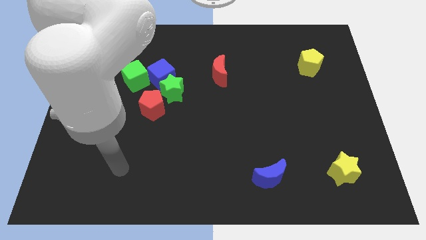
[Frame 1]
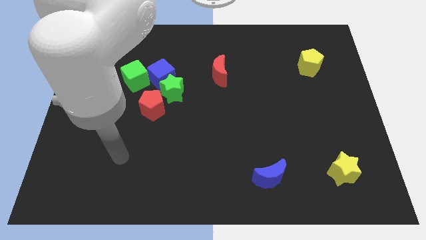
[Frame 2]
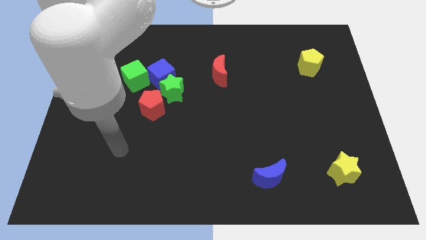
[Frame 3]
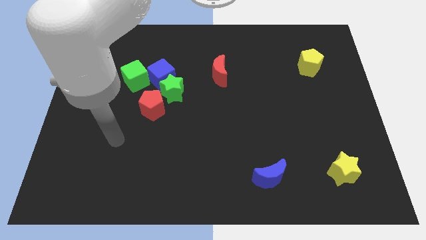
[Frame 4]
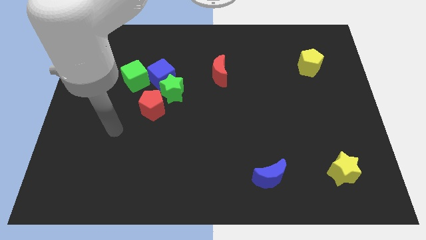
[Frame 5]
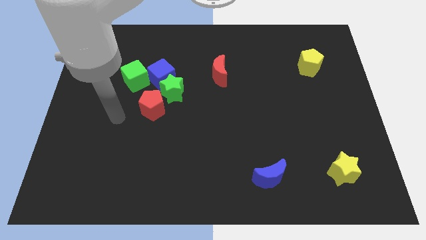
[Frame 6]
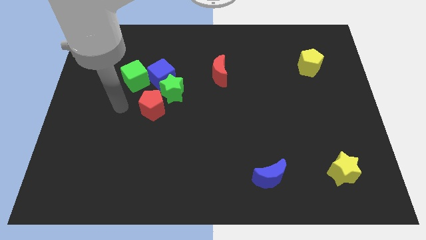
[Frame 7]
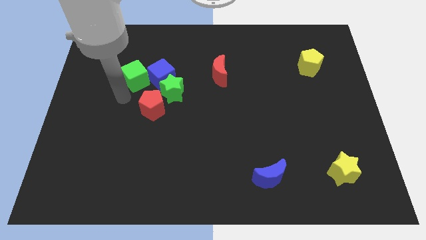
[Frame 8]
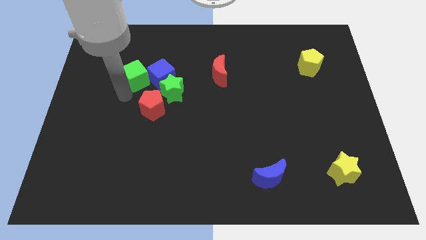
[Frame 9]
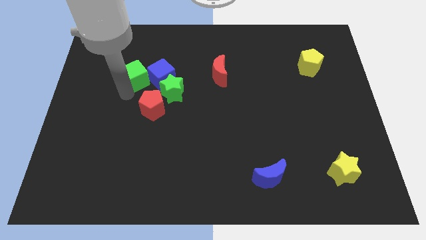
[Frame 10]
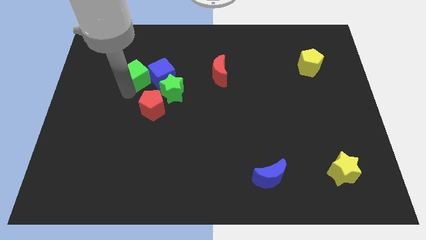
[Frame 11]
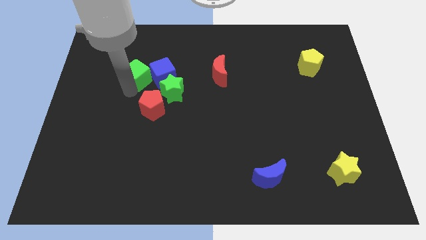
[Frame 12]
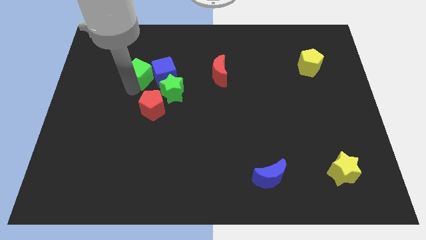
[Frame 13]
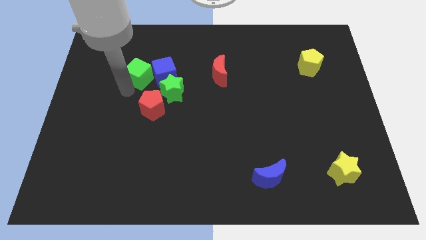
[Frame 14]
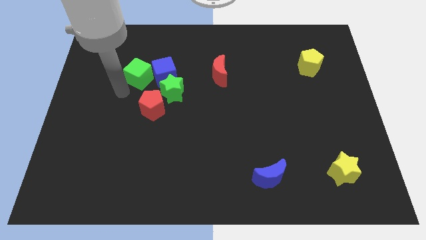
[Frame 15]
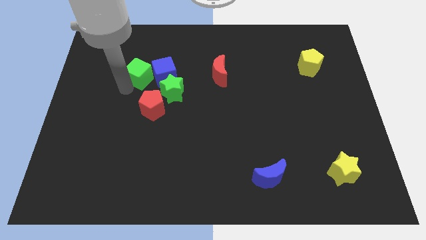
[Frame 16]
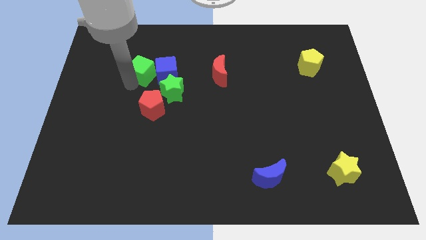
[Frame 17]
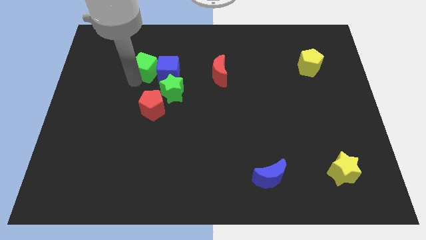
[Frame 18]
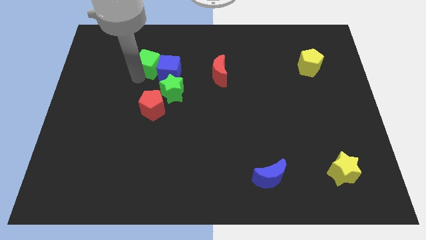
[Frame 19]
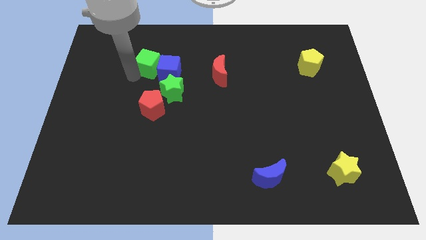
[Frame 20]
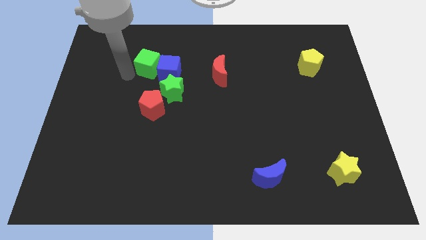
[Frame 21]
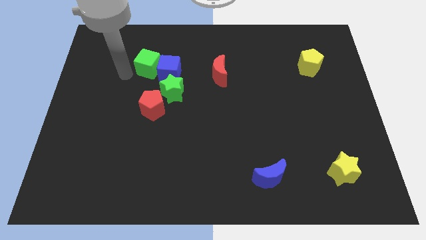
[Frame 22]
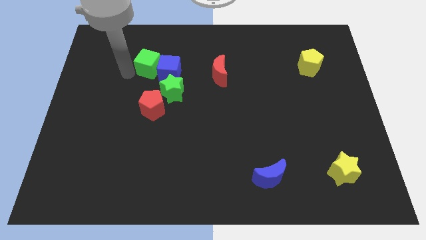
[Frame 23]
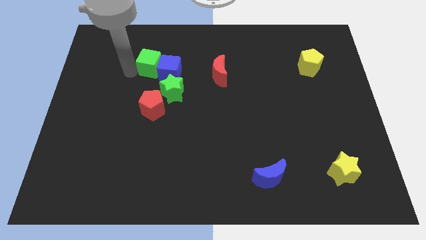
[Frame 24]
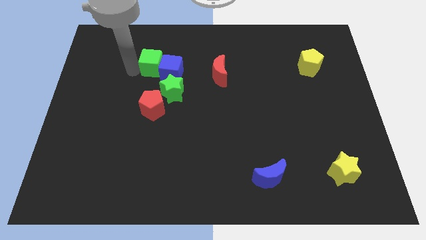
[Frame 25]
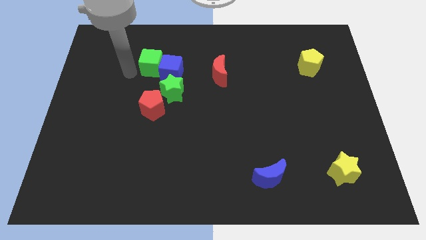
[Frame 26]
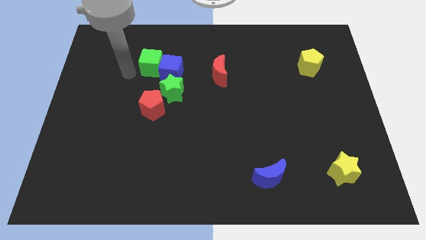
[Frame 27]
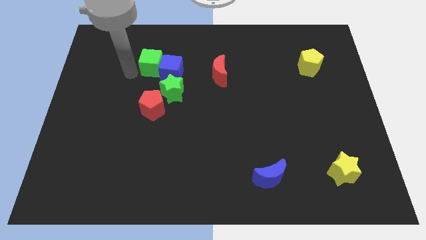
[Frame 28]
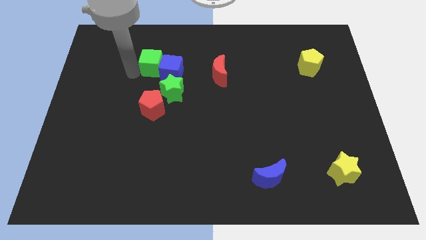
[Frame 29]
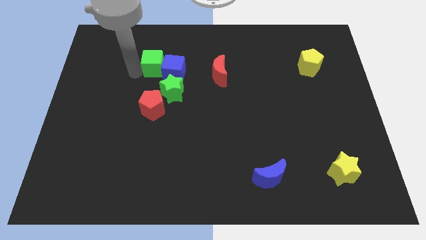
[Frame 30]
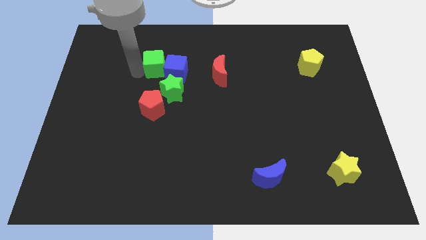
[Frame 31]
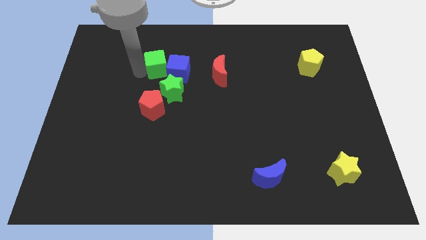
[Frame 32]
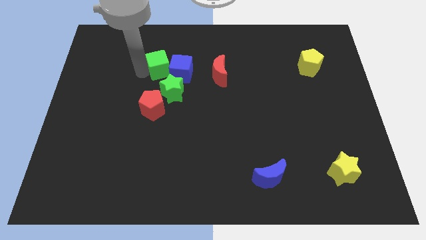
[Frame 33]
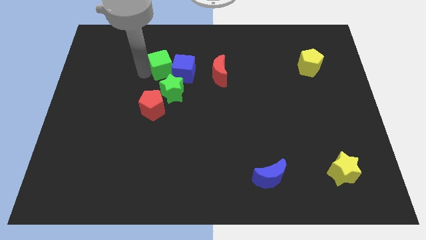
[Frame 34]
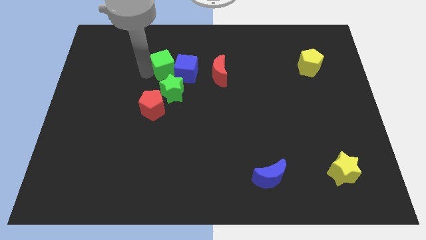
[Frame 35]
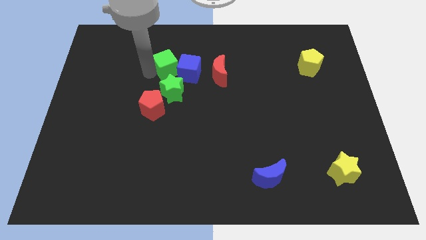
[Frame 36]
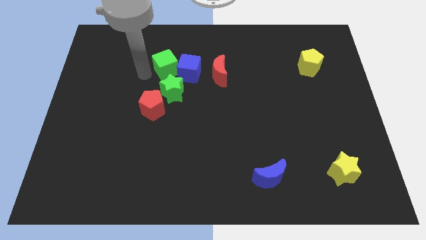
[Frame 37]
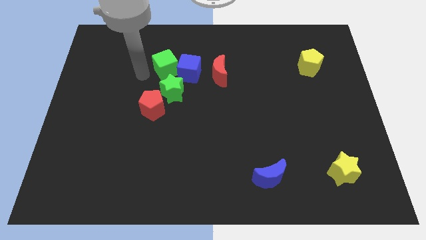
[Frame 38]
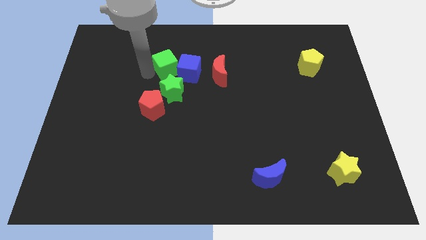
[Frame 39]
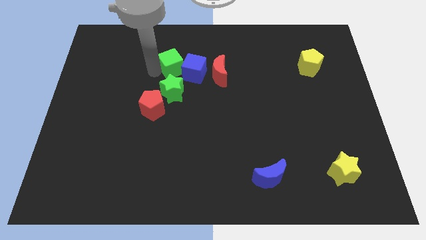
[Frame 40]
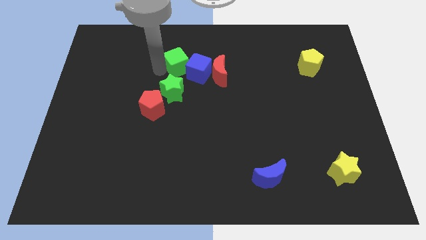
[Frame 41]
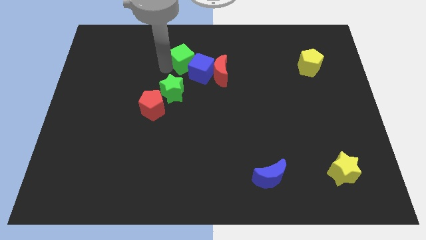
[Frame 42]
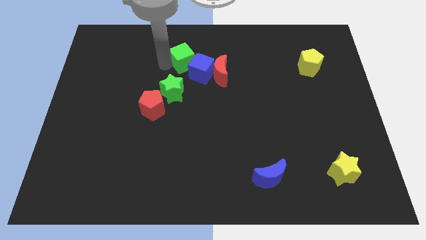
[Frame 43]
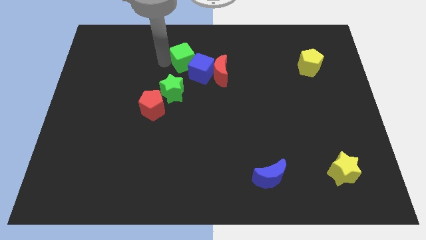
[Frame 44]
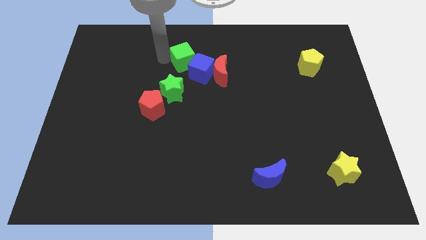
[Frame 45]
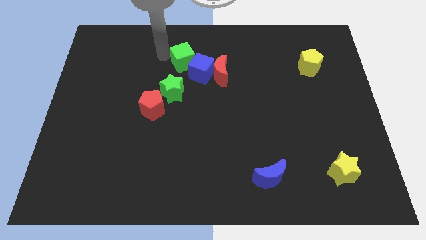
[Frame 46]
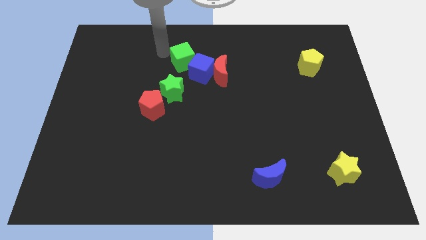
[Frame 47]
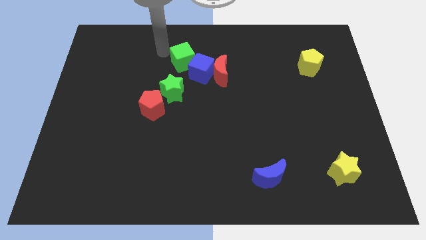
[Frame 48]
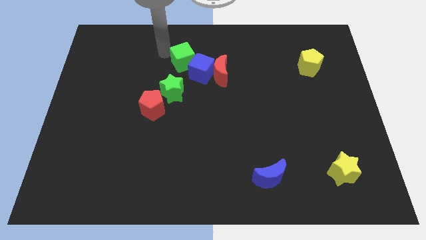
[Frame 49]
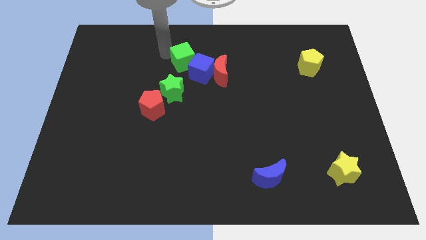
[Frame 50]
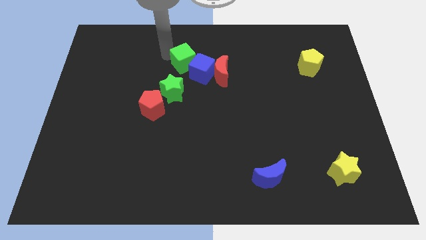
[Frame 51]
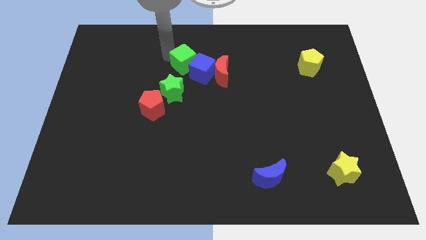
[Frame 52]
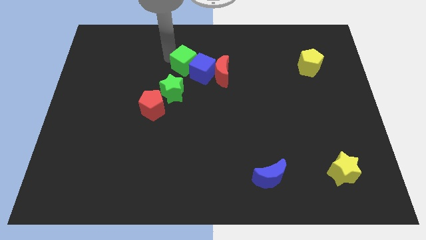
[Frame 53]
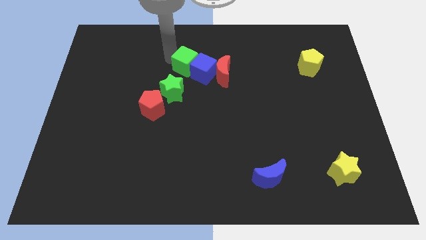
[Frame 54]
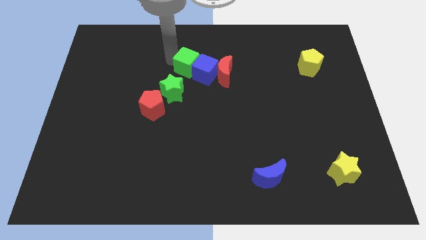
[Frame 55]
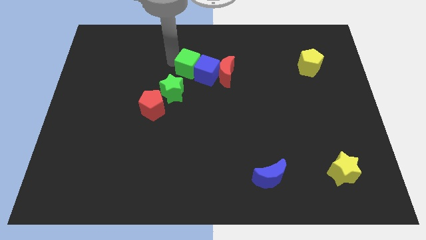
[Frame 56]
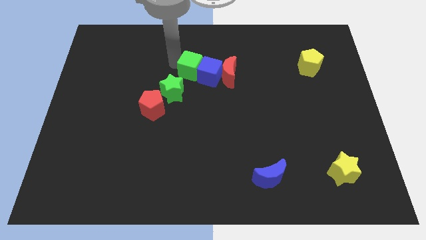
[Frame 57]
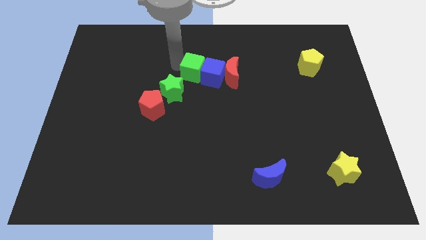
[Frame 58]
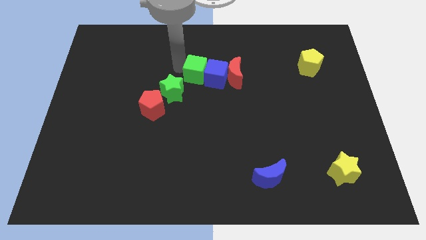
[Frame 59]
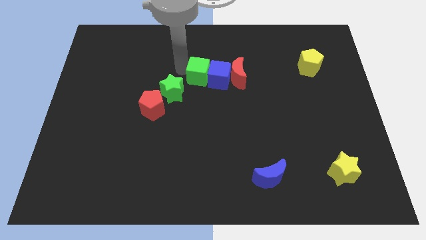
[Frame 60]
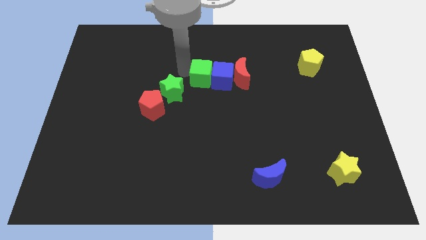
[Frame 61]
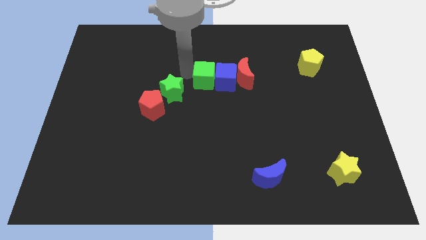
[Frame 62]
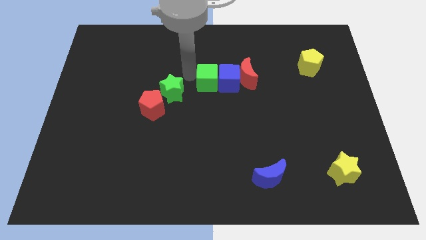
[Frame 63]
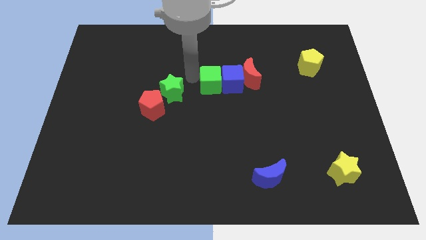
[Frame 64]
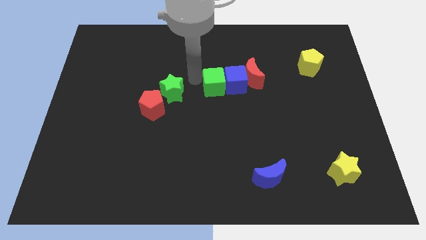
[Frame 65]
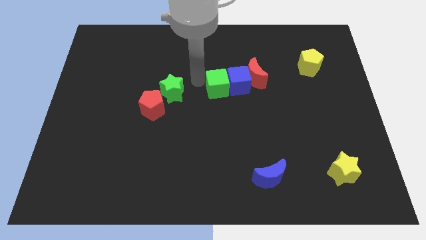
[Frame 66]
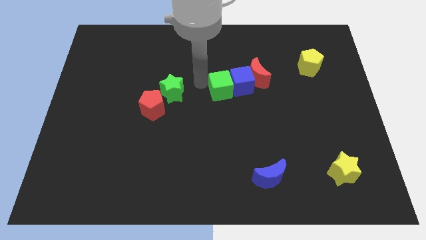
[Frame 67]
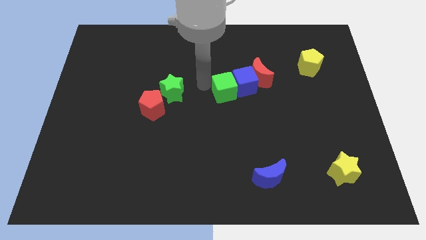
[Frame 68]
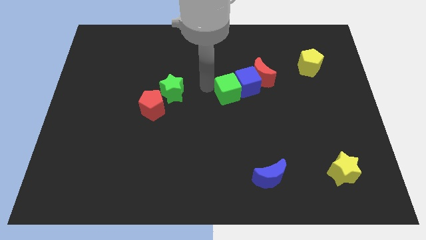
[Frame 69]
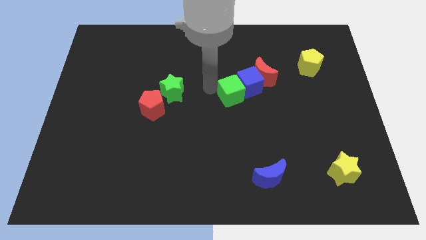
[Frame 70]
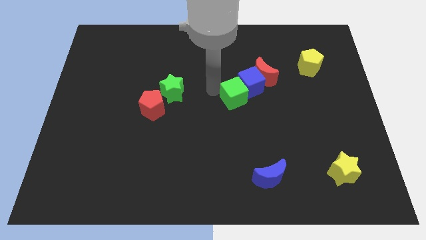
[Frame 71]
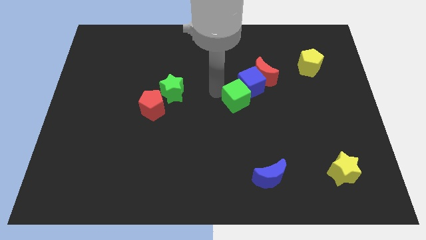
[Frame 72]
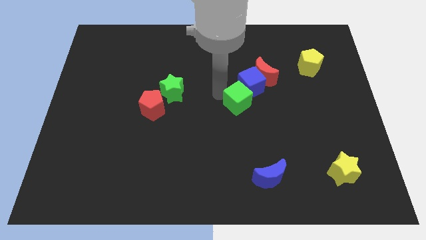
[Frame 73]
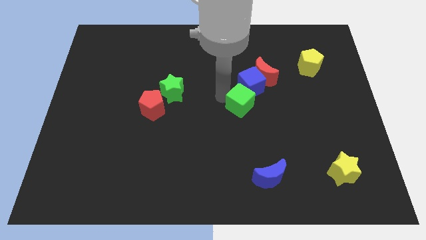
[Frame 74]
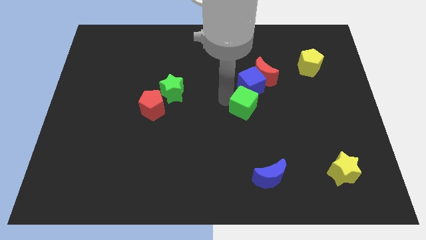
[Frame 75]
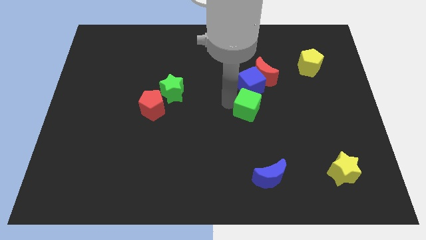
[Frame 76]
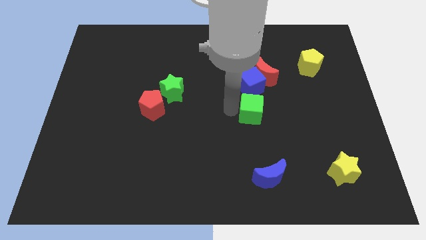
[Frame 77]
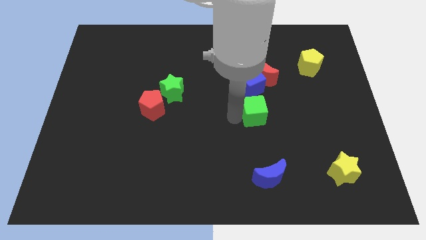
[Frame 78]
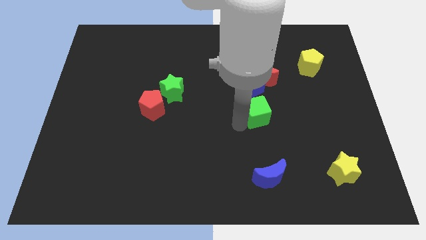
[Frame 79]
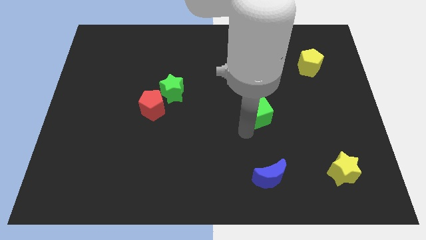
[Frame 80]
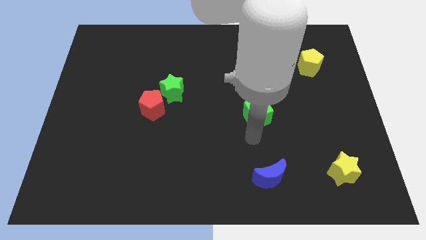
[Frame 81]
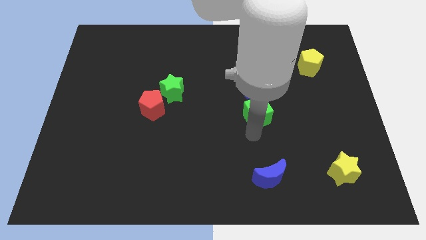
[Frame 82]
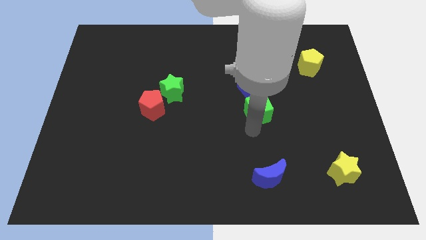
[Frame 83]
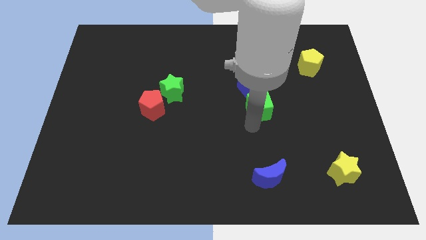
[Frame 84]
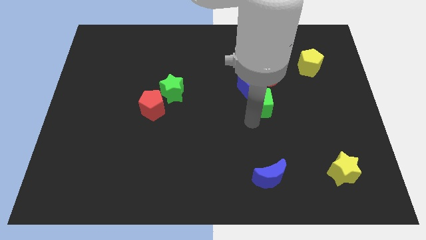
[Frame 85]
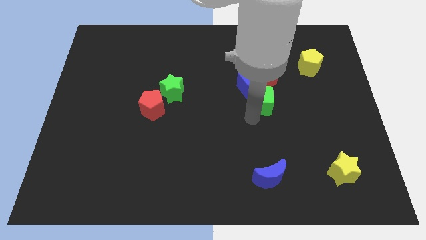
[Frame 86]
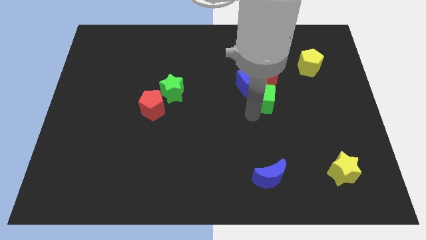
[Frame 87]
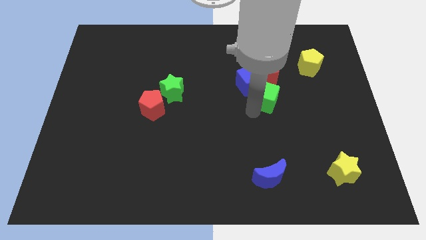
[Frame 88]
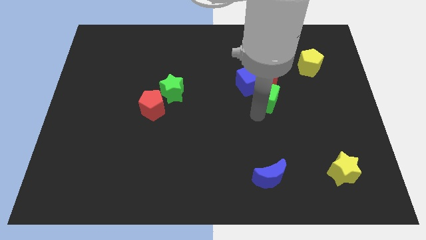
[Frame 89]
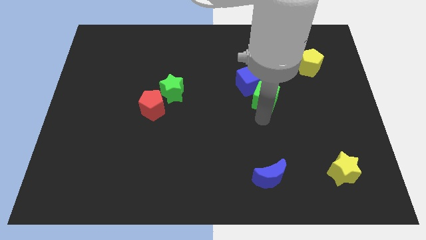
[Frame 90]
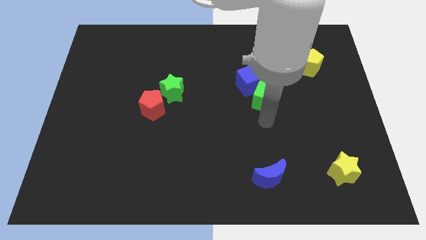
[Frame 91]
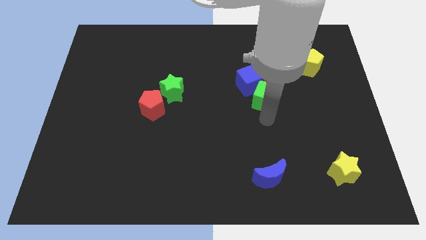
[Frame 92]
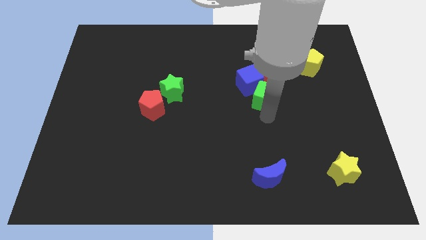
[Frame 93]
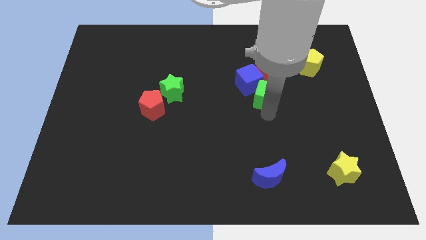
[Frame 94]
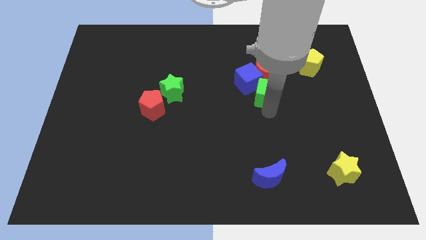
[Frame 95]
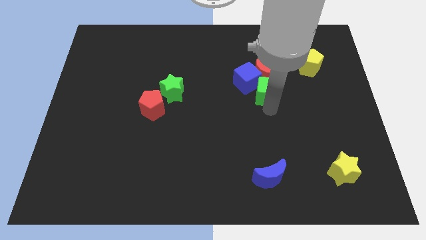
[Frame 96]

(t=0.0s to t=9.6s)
push the green cube to the red moon
